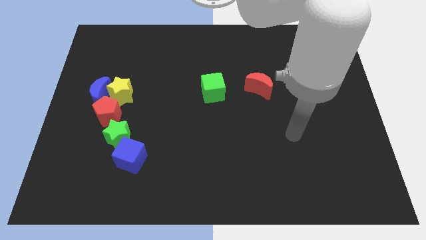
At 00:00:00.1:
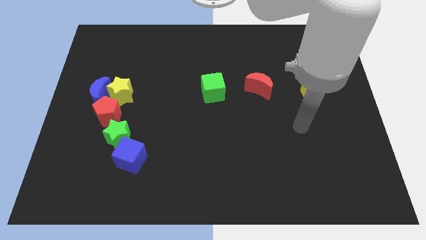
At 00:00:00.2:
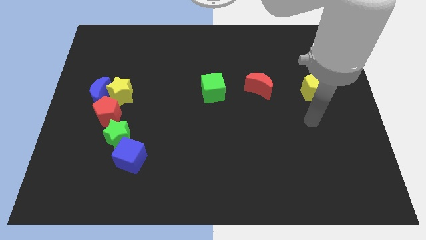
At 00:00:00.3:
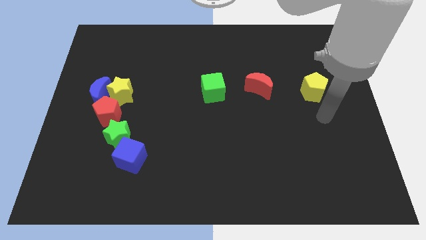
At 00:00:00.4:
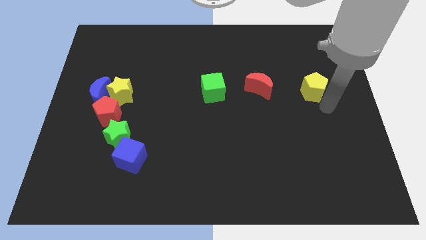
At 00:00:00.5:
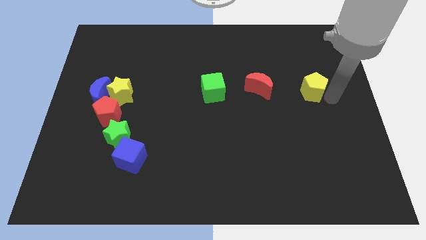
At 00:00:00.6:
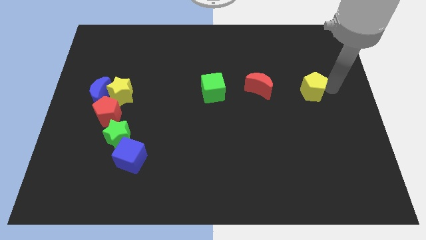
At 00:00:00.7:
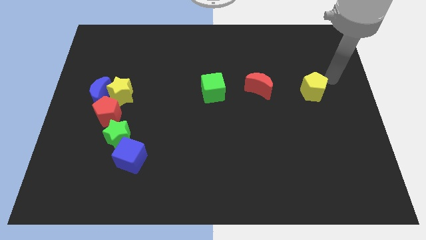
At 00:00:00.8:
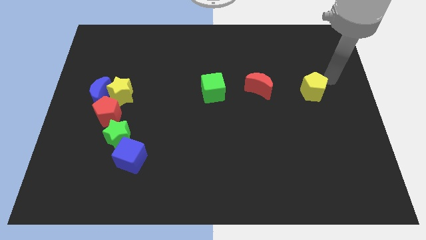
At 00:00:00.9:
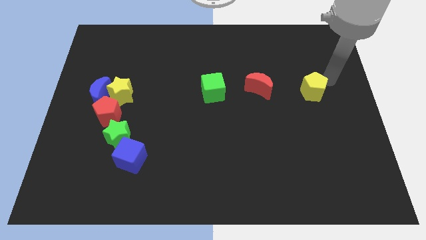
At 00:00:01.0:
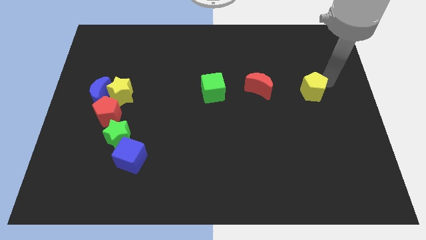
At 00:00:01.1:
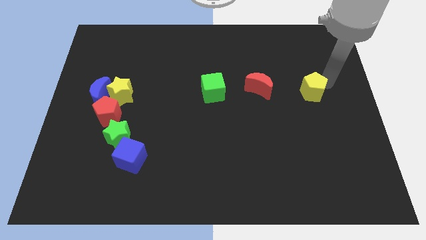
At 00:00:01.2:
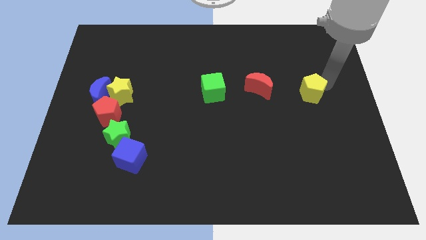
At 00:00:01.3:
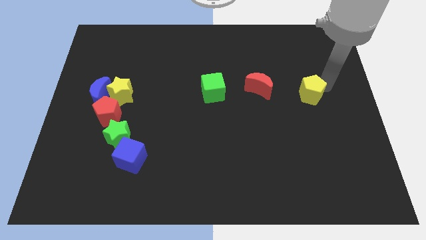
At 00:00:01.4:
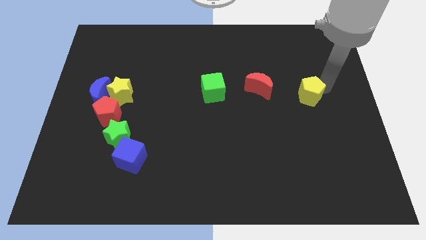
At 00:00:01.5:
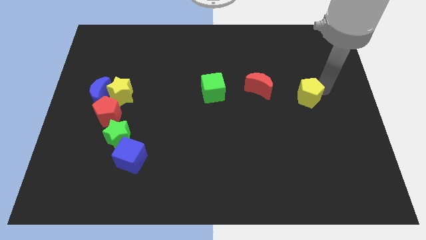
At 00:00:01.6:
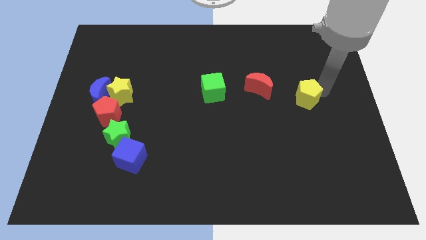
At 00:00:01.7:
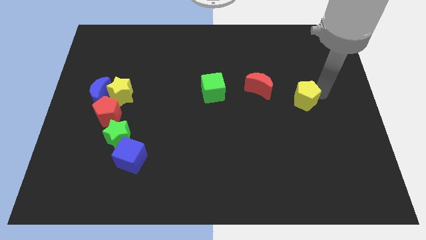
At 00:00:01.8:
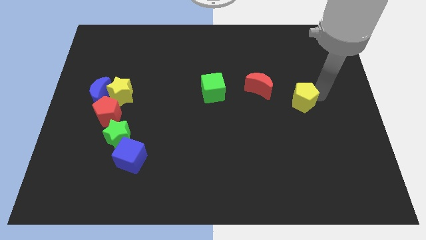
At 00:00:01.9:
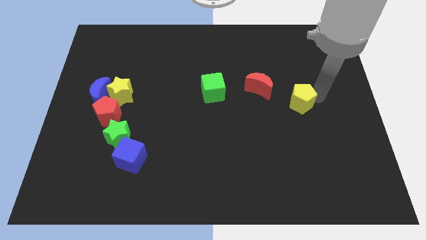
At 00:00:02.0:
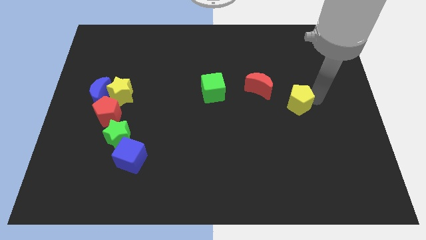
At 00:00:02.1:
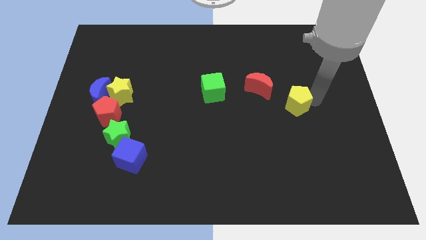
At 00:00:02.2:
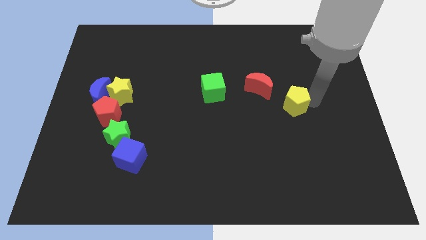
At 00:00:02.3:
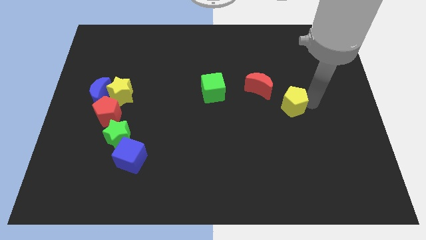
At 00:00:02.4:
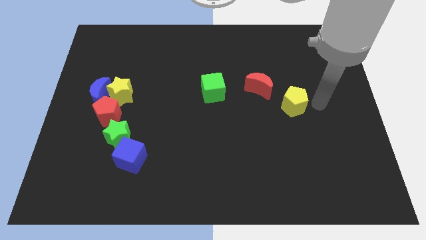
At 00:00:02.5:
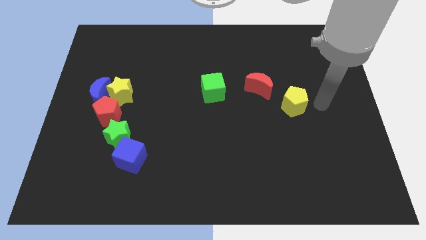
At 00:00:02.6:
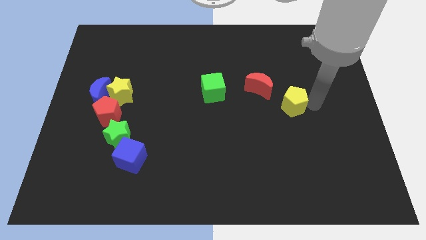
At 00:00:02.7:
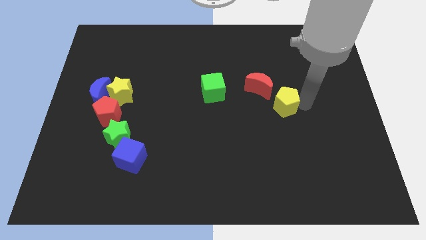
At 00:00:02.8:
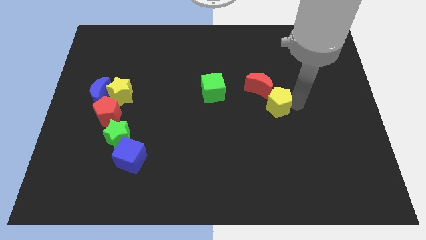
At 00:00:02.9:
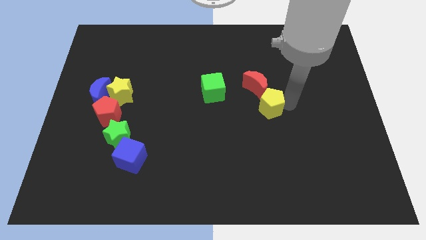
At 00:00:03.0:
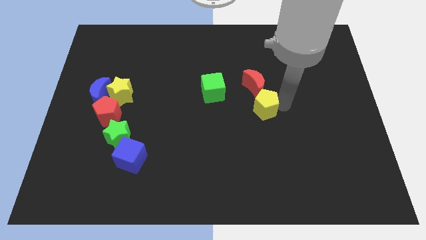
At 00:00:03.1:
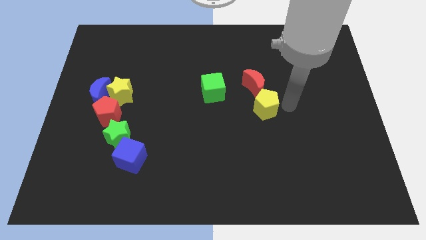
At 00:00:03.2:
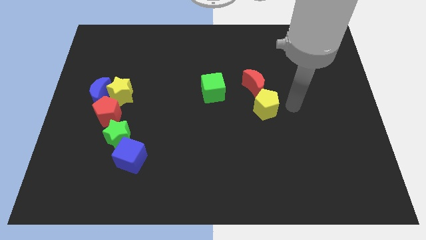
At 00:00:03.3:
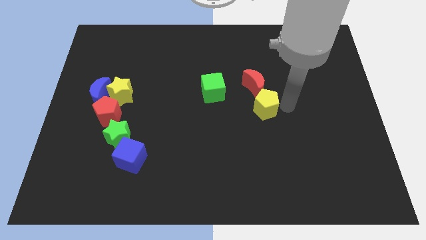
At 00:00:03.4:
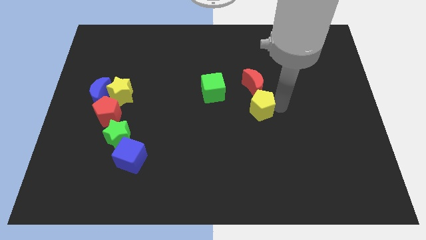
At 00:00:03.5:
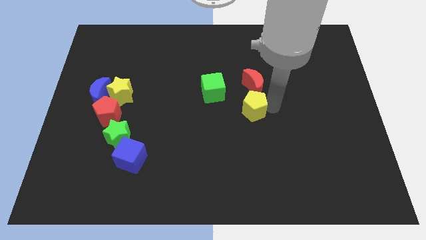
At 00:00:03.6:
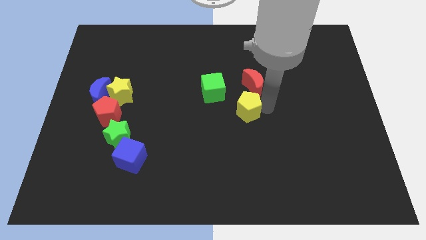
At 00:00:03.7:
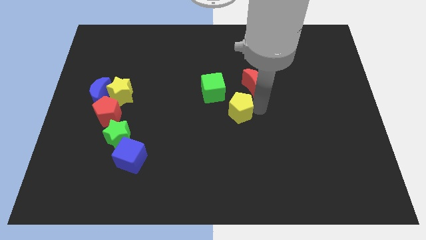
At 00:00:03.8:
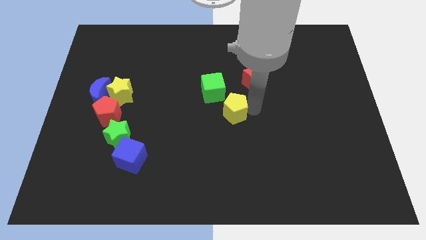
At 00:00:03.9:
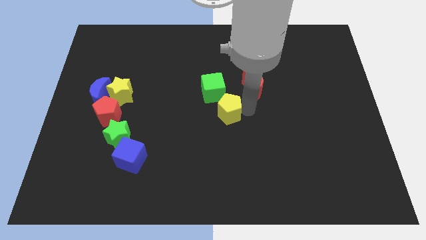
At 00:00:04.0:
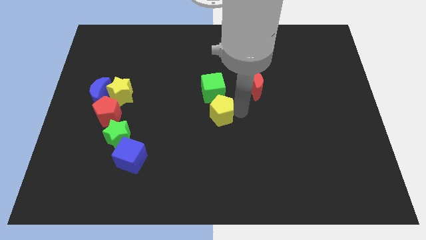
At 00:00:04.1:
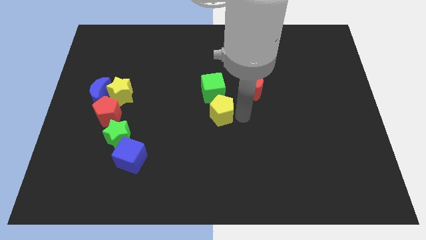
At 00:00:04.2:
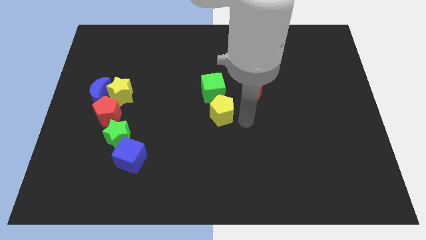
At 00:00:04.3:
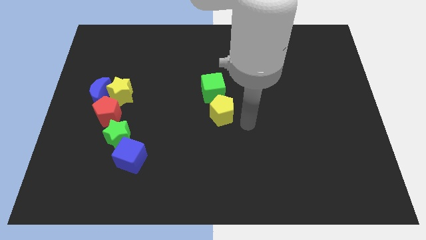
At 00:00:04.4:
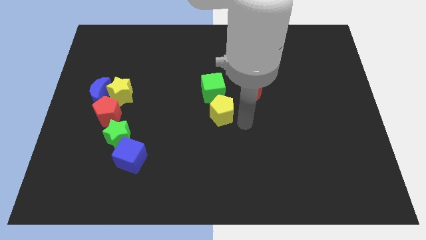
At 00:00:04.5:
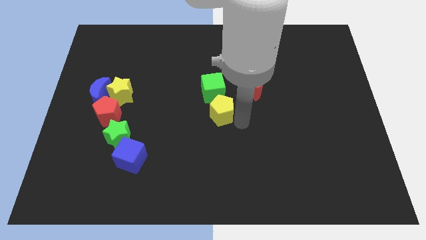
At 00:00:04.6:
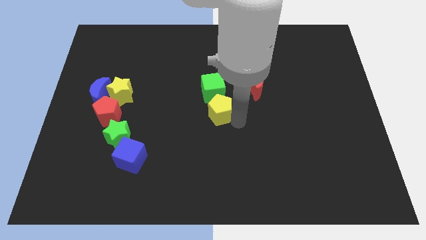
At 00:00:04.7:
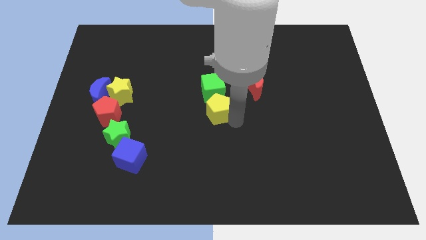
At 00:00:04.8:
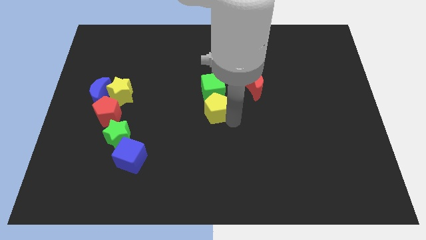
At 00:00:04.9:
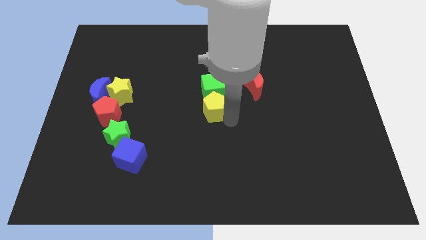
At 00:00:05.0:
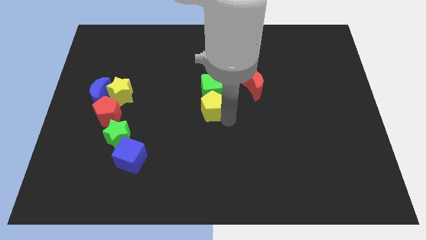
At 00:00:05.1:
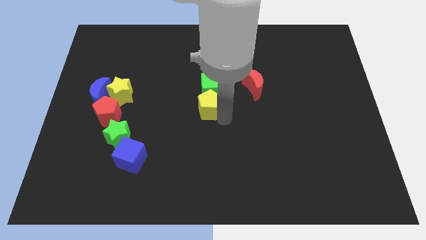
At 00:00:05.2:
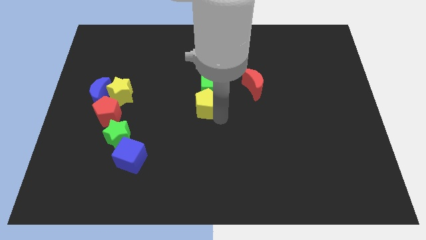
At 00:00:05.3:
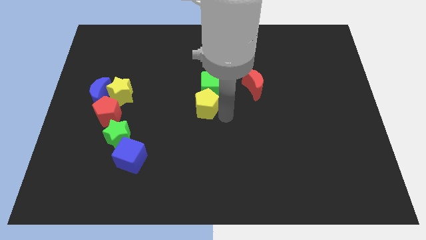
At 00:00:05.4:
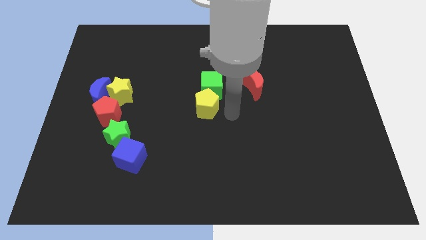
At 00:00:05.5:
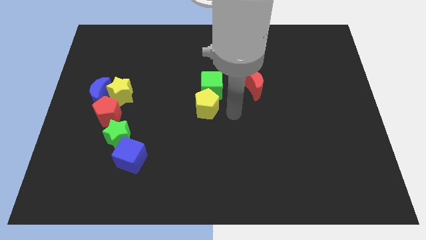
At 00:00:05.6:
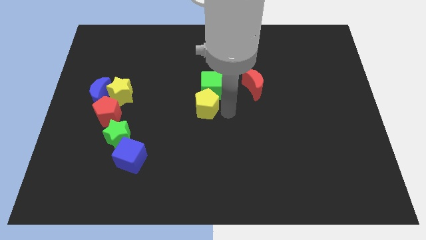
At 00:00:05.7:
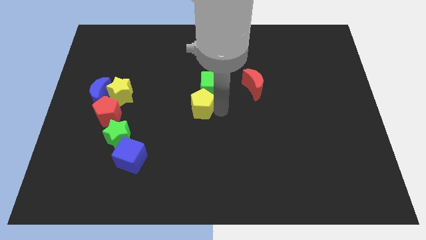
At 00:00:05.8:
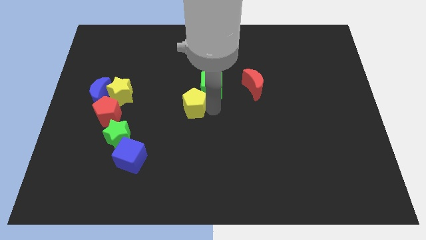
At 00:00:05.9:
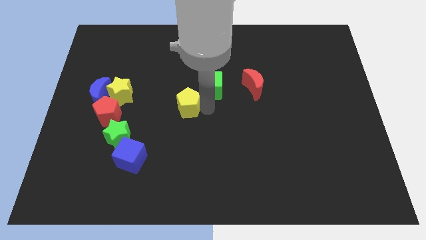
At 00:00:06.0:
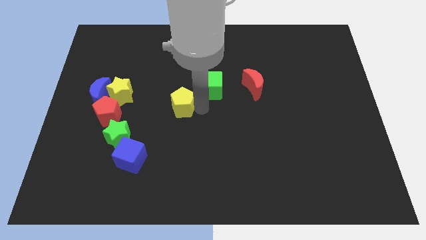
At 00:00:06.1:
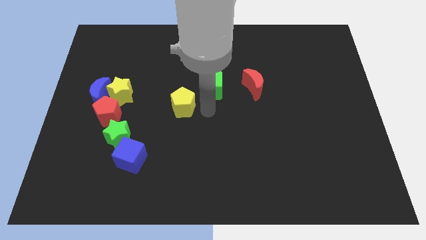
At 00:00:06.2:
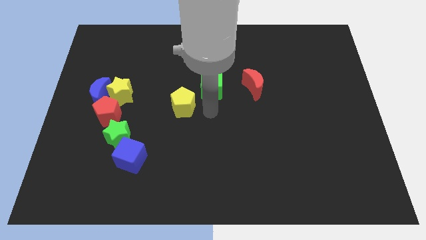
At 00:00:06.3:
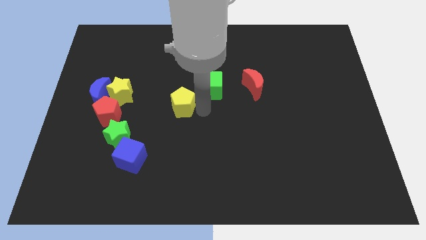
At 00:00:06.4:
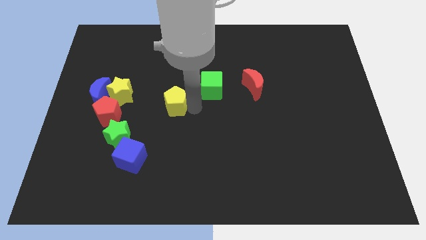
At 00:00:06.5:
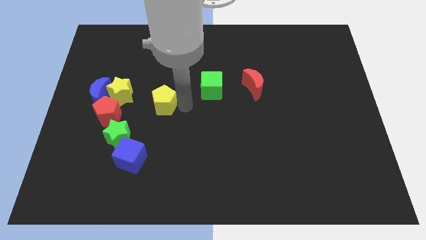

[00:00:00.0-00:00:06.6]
slide the yellow pentagon just right of the blue moon

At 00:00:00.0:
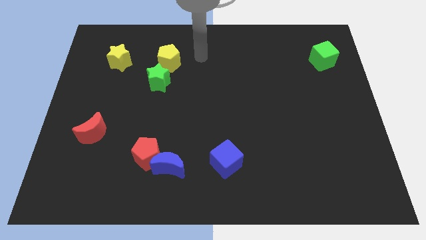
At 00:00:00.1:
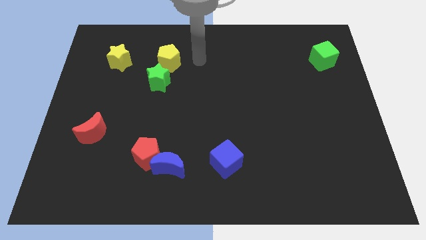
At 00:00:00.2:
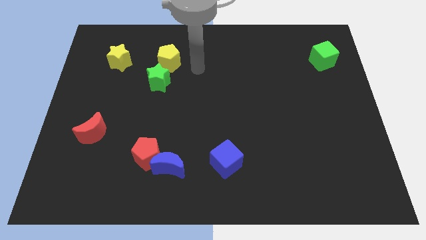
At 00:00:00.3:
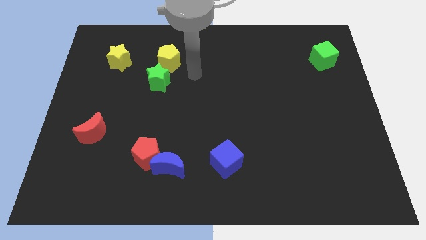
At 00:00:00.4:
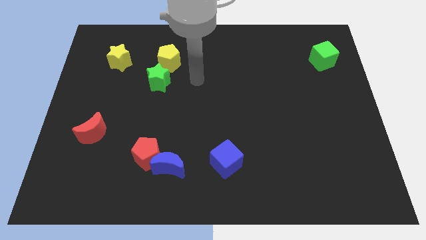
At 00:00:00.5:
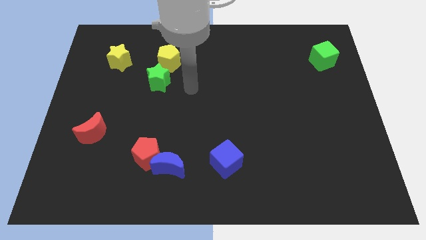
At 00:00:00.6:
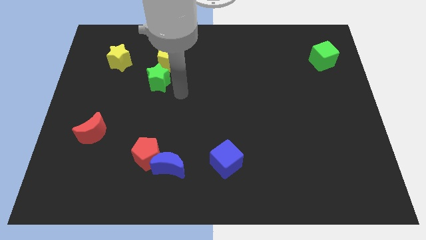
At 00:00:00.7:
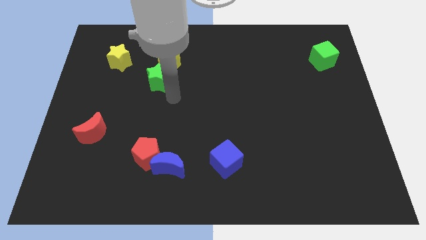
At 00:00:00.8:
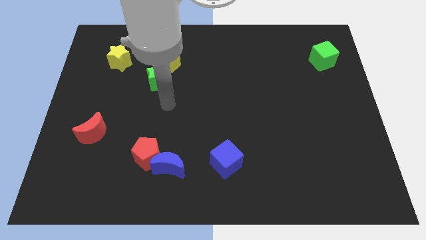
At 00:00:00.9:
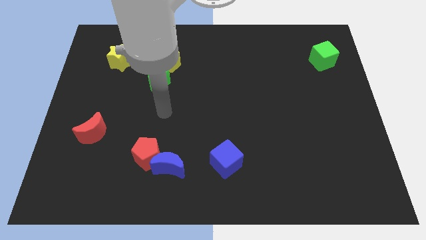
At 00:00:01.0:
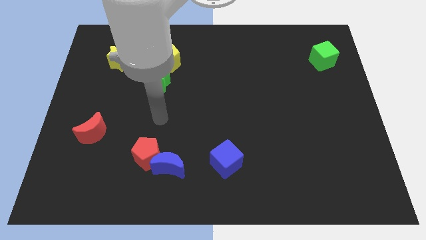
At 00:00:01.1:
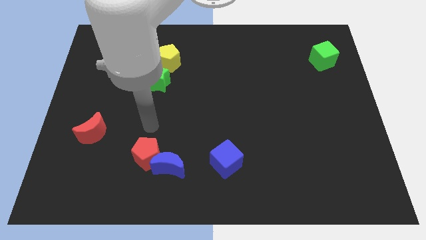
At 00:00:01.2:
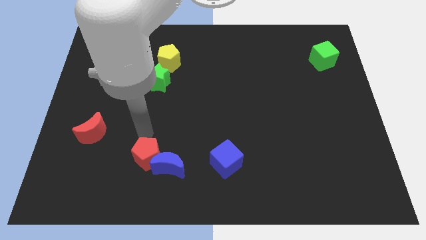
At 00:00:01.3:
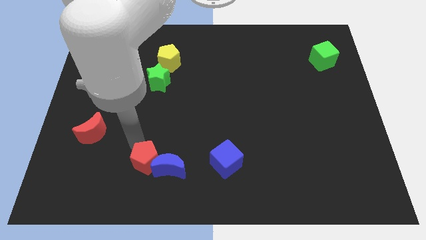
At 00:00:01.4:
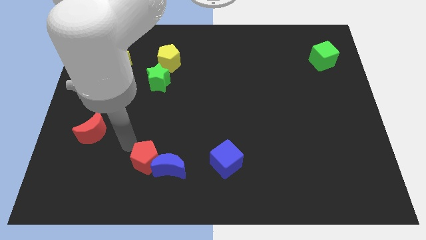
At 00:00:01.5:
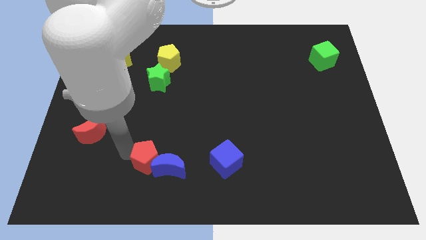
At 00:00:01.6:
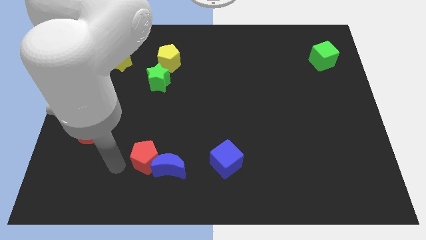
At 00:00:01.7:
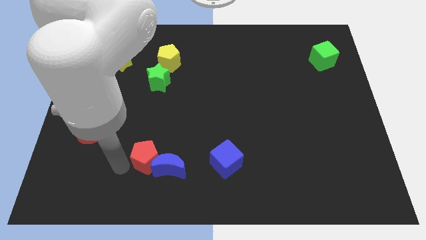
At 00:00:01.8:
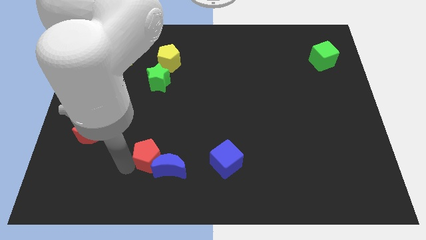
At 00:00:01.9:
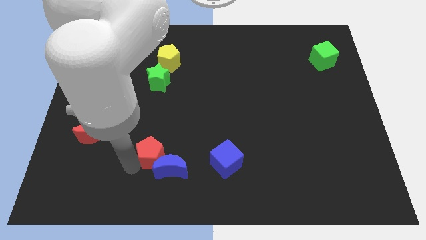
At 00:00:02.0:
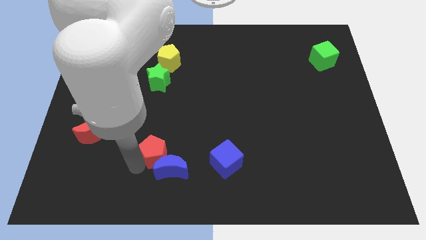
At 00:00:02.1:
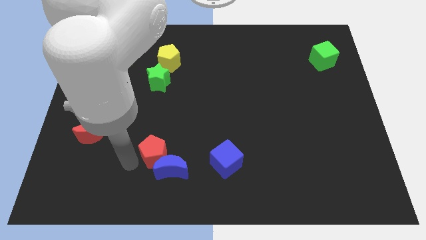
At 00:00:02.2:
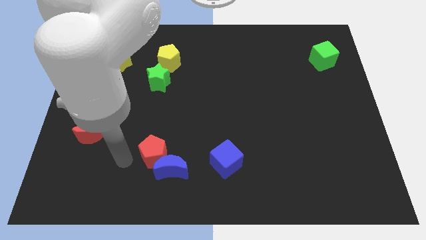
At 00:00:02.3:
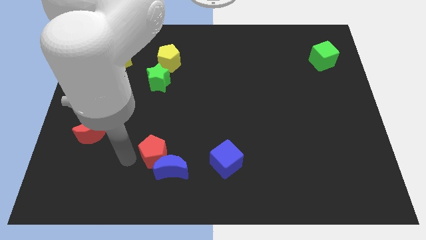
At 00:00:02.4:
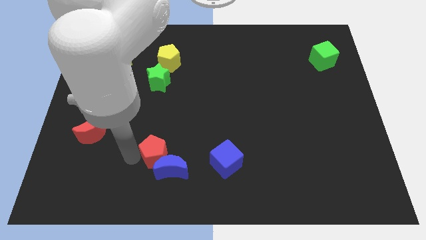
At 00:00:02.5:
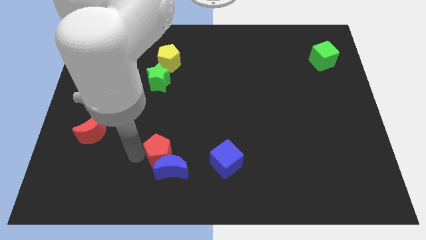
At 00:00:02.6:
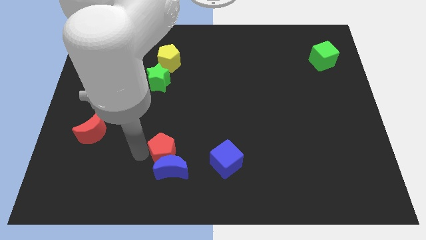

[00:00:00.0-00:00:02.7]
push the red pentagon to the top right of the blue moon
